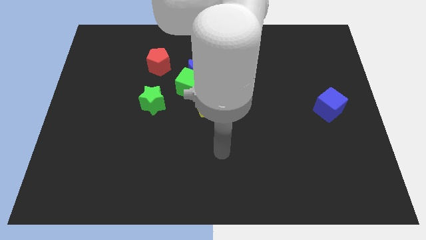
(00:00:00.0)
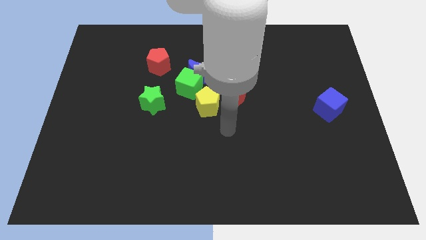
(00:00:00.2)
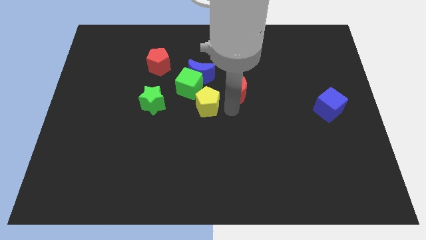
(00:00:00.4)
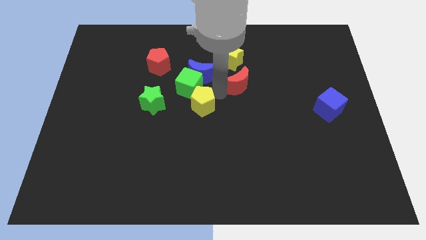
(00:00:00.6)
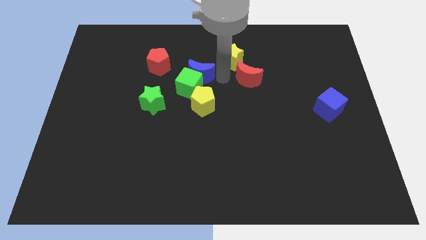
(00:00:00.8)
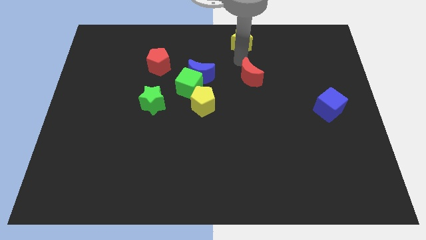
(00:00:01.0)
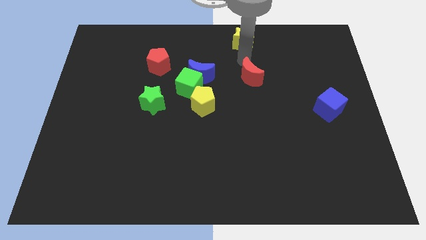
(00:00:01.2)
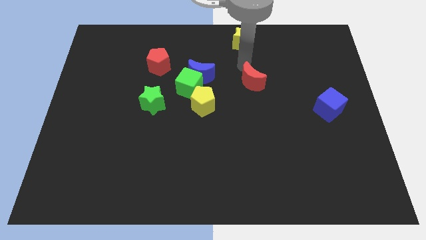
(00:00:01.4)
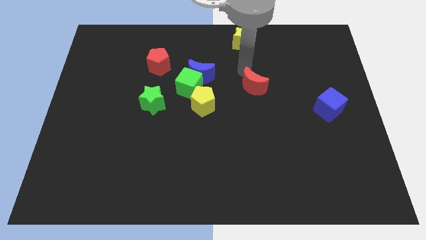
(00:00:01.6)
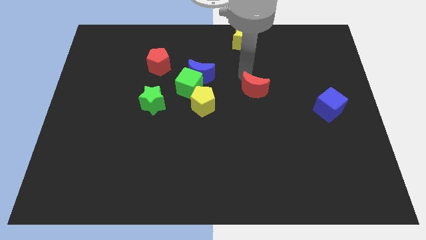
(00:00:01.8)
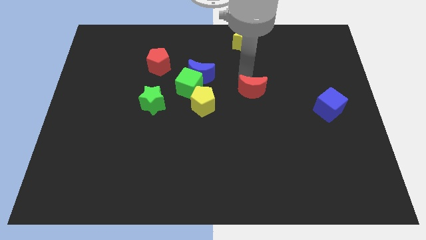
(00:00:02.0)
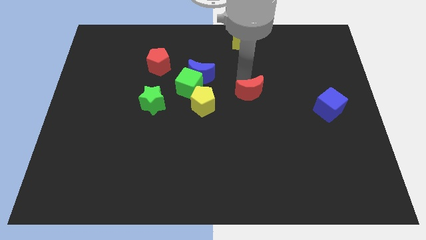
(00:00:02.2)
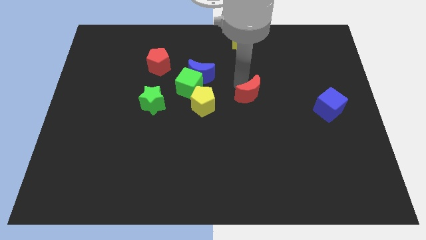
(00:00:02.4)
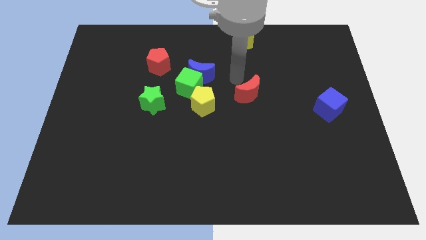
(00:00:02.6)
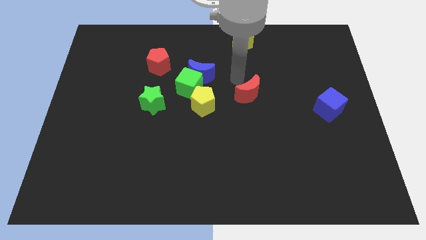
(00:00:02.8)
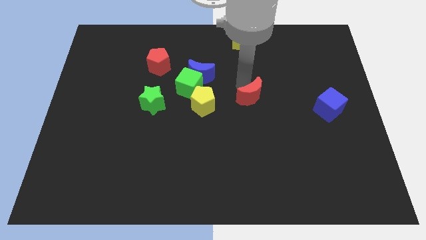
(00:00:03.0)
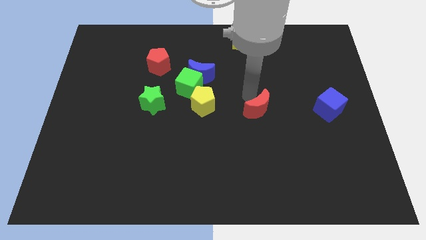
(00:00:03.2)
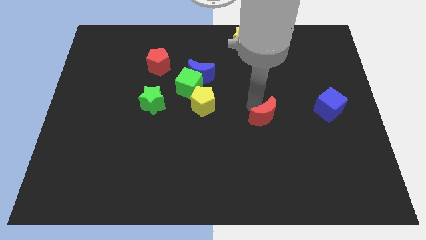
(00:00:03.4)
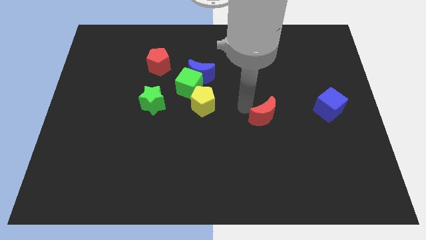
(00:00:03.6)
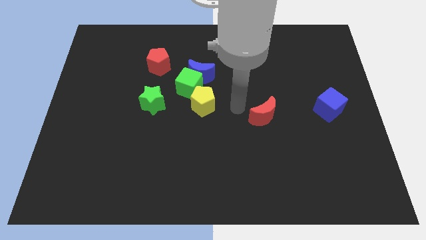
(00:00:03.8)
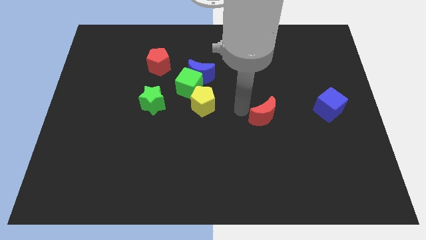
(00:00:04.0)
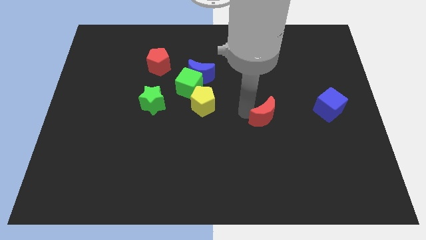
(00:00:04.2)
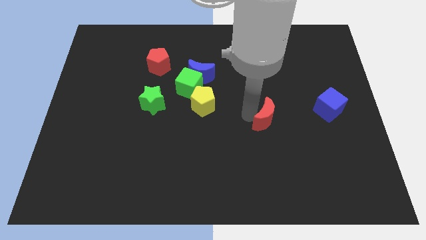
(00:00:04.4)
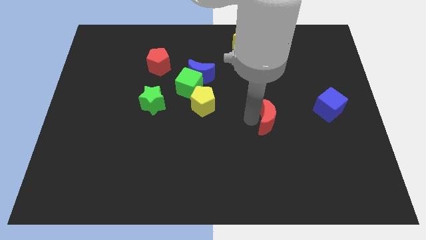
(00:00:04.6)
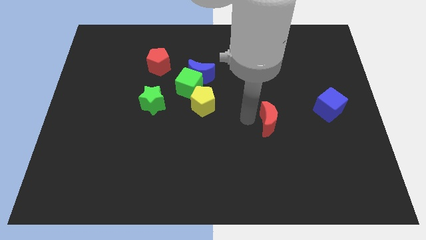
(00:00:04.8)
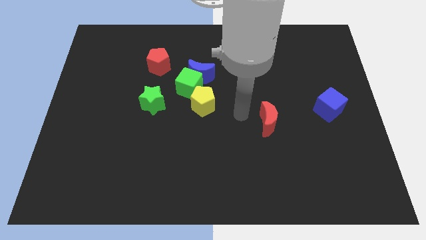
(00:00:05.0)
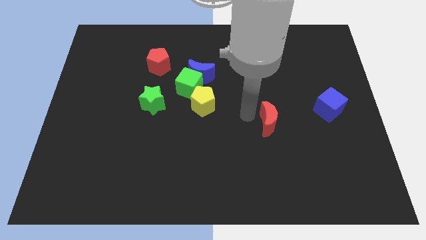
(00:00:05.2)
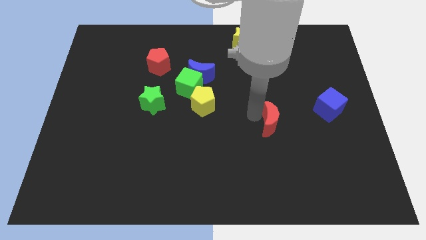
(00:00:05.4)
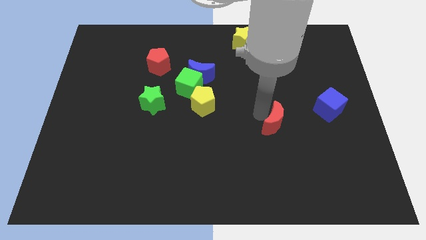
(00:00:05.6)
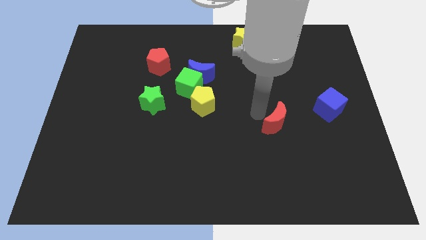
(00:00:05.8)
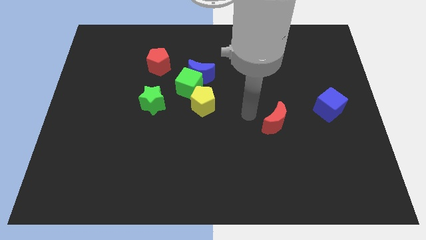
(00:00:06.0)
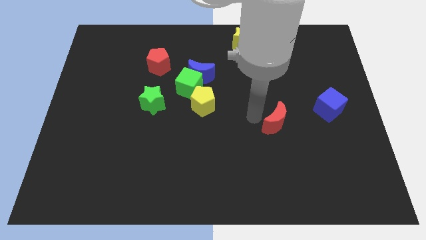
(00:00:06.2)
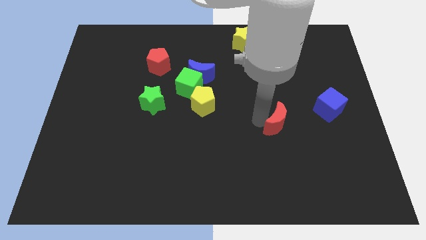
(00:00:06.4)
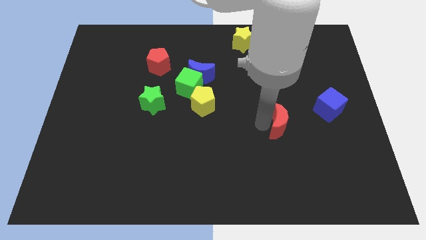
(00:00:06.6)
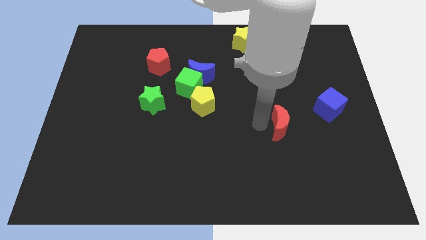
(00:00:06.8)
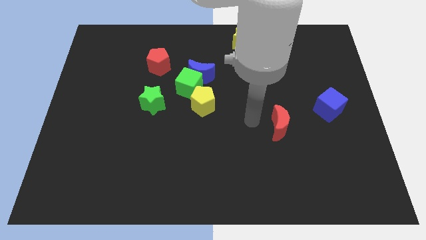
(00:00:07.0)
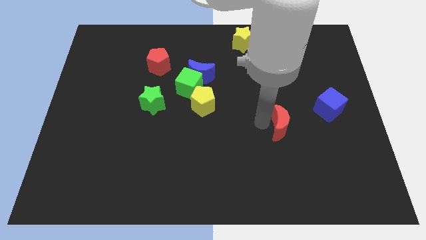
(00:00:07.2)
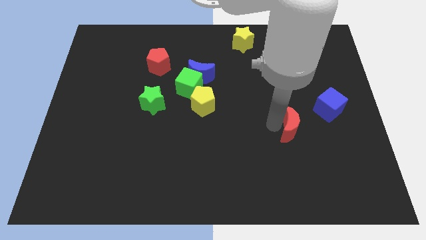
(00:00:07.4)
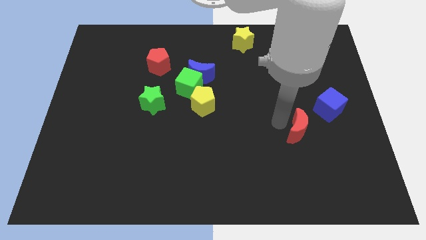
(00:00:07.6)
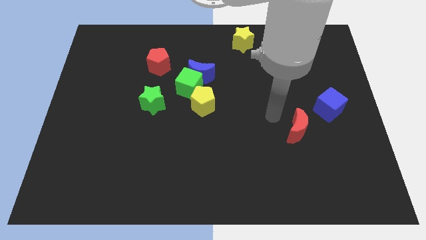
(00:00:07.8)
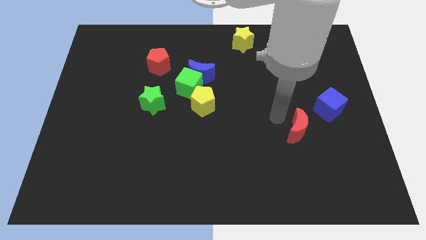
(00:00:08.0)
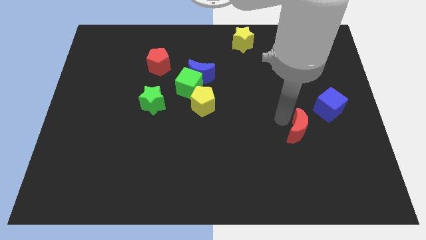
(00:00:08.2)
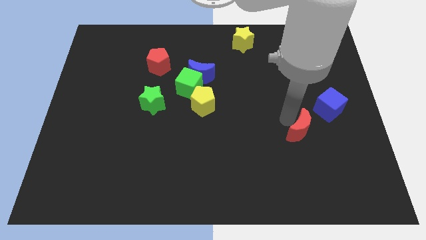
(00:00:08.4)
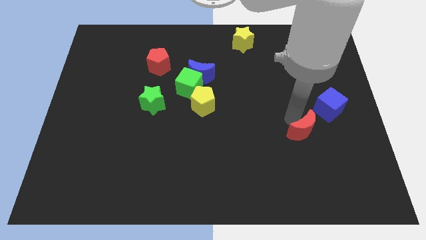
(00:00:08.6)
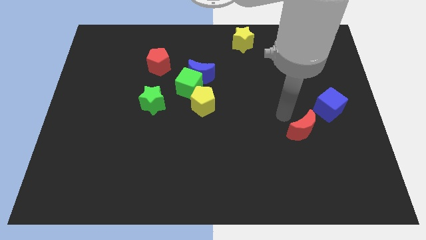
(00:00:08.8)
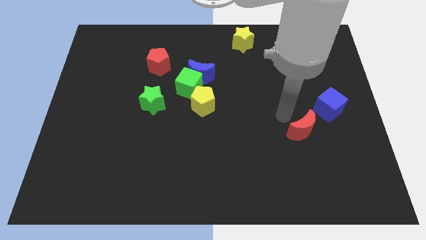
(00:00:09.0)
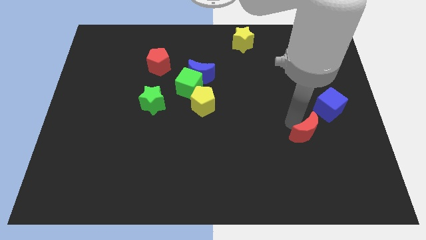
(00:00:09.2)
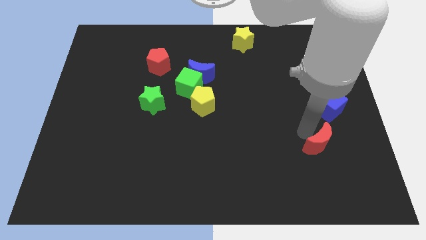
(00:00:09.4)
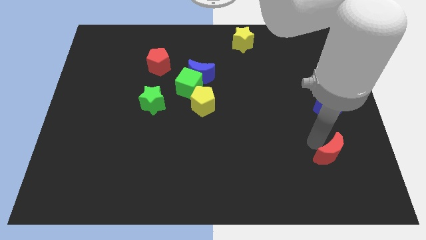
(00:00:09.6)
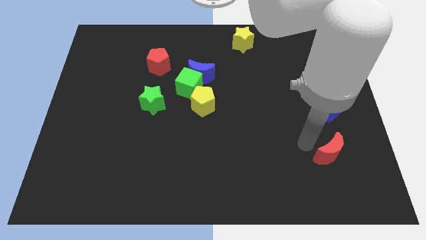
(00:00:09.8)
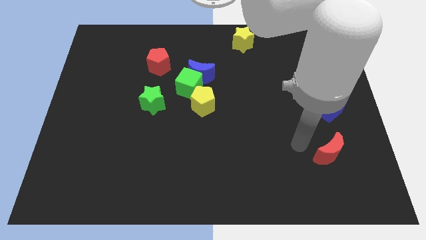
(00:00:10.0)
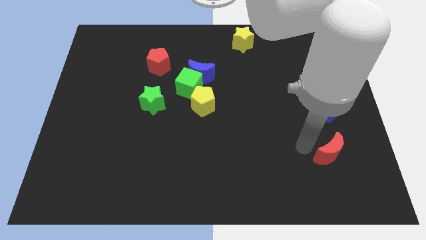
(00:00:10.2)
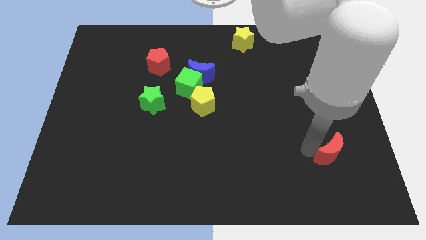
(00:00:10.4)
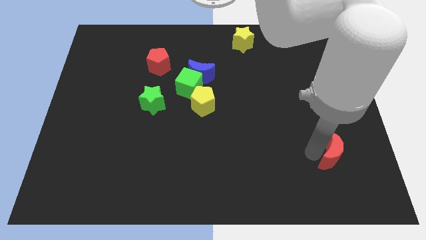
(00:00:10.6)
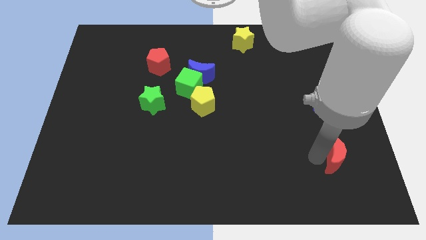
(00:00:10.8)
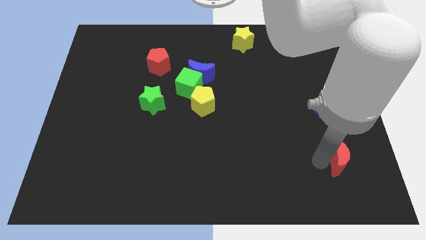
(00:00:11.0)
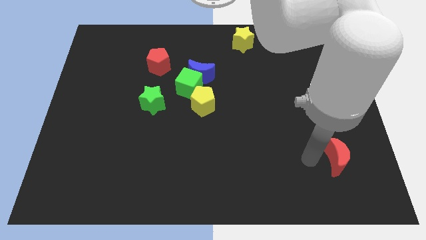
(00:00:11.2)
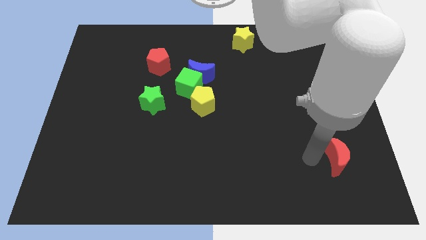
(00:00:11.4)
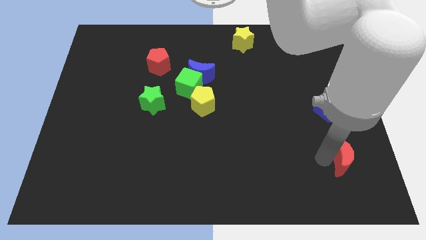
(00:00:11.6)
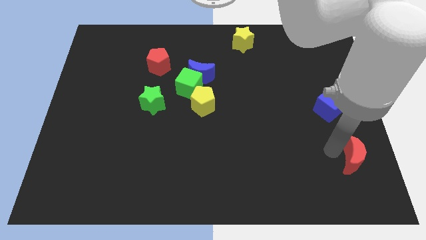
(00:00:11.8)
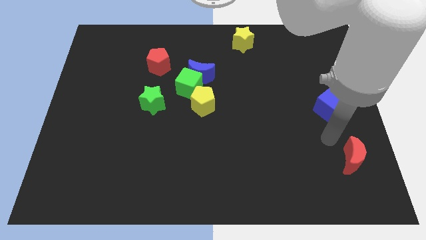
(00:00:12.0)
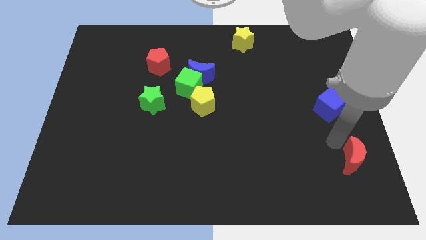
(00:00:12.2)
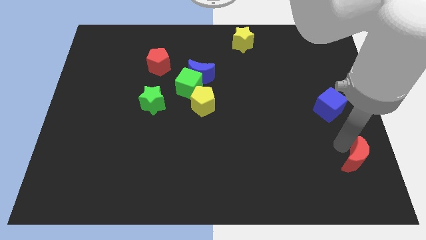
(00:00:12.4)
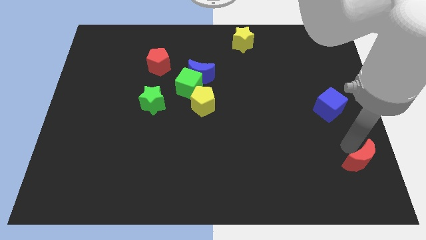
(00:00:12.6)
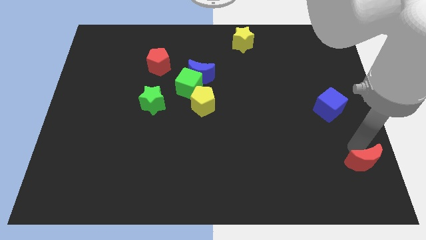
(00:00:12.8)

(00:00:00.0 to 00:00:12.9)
put the red moon to the bottom right corner
